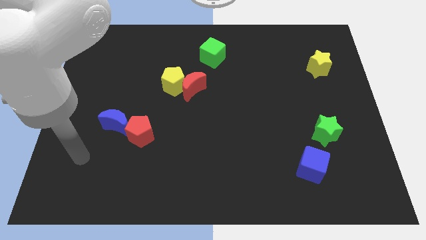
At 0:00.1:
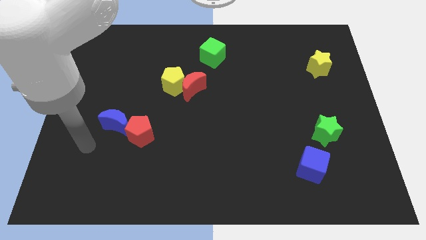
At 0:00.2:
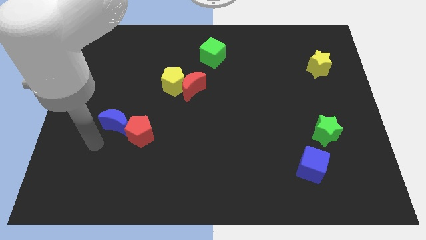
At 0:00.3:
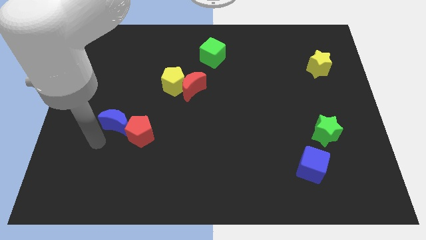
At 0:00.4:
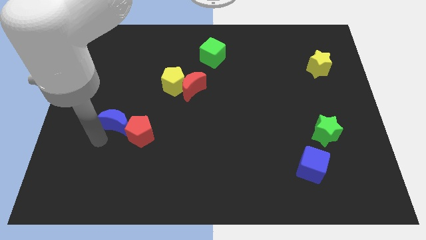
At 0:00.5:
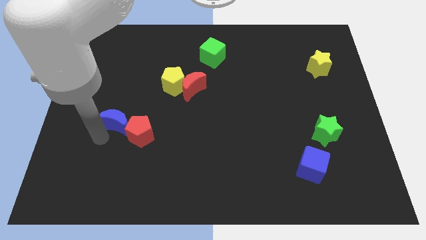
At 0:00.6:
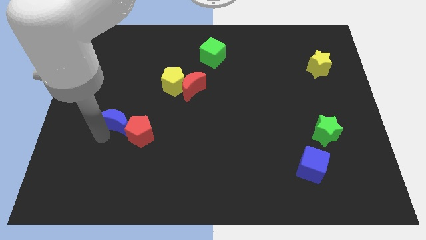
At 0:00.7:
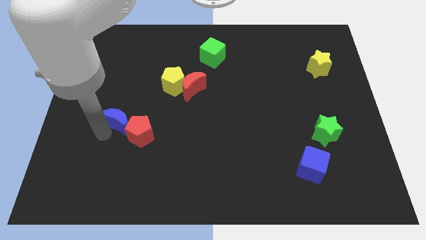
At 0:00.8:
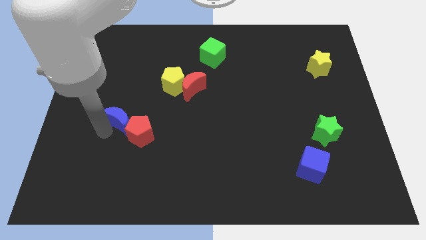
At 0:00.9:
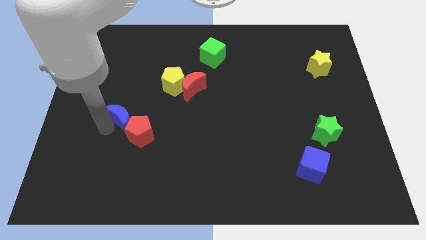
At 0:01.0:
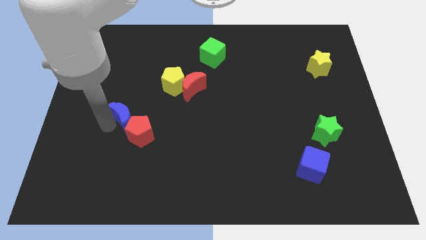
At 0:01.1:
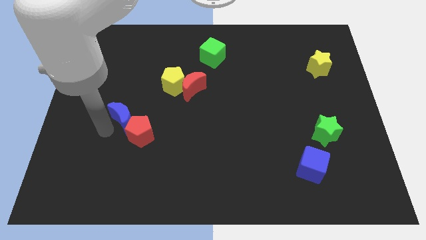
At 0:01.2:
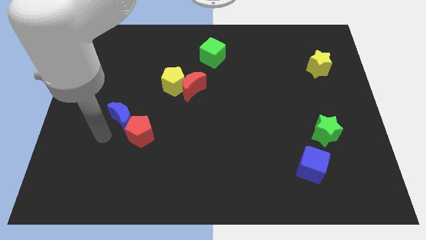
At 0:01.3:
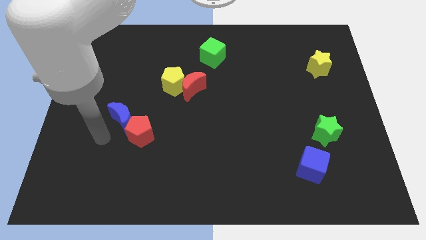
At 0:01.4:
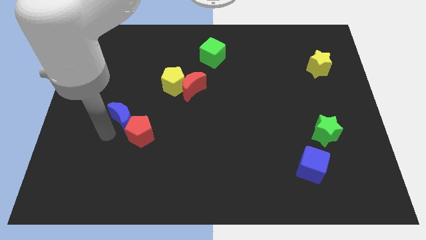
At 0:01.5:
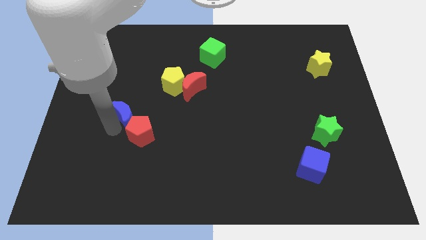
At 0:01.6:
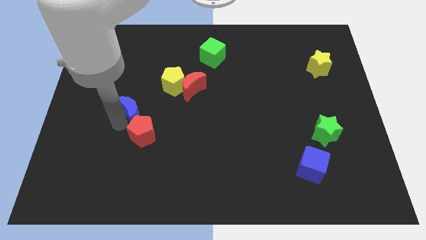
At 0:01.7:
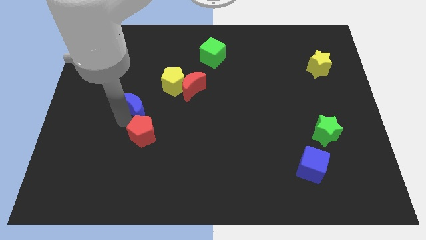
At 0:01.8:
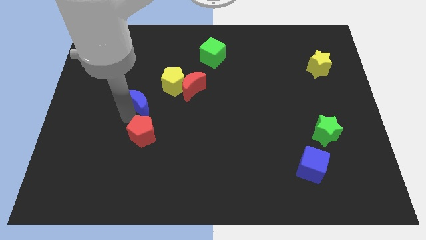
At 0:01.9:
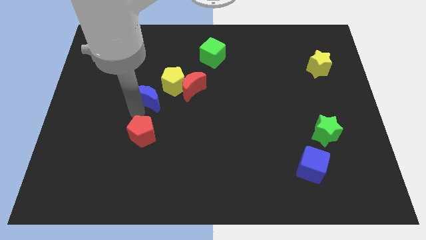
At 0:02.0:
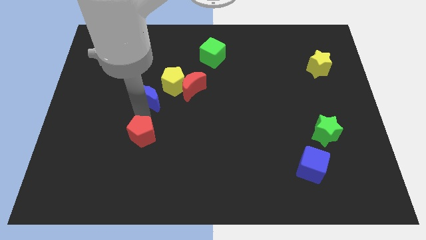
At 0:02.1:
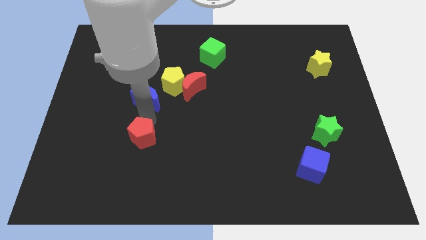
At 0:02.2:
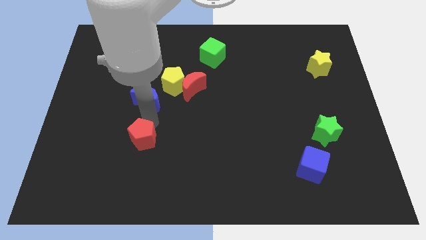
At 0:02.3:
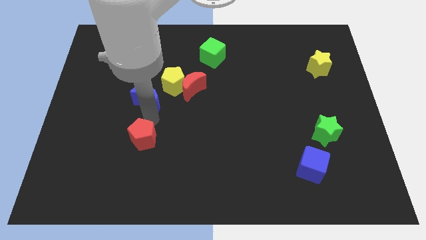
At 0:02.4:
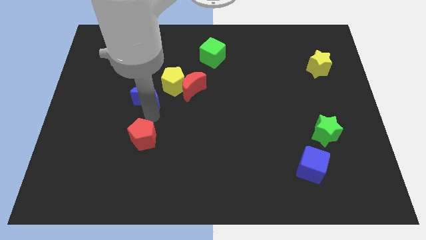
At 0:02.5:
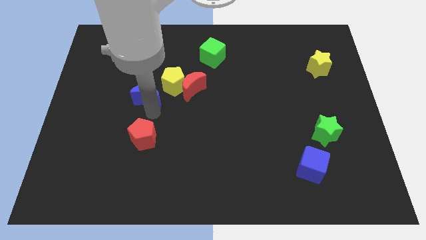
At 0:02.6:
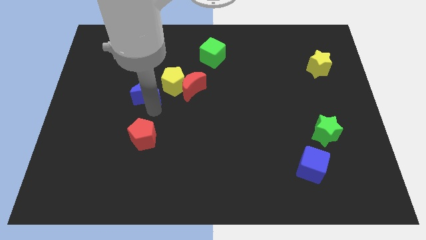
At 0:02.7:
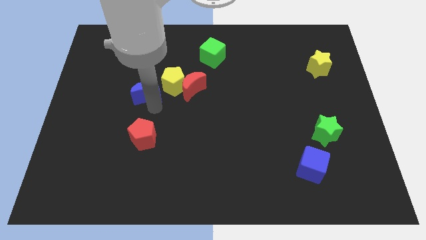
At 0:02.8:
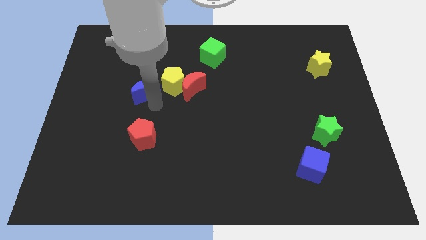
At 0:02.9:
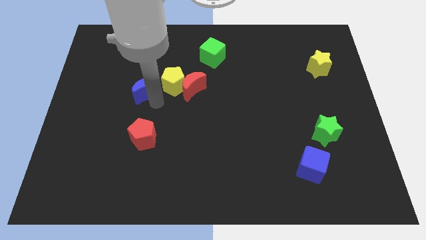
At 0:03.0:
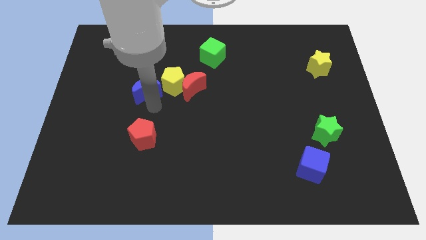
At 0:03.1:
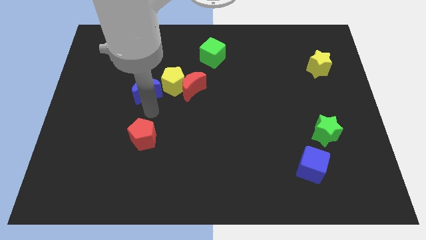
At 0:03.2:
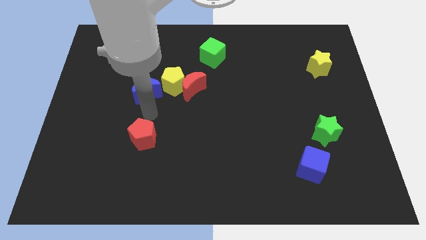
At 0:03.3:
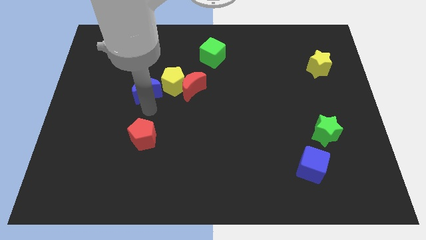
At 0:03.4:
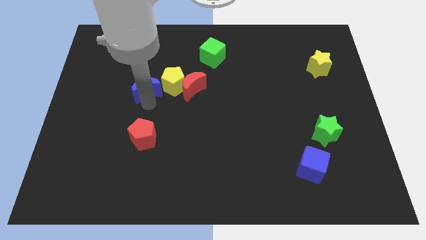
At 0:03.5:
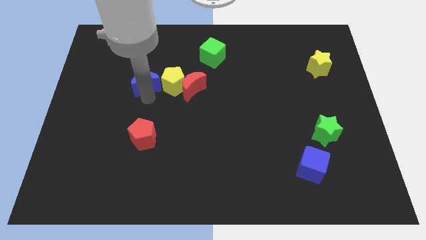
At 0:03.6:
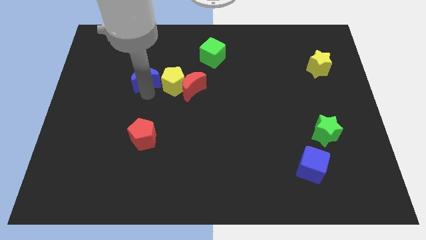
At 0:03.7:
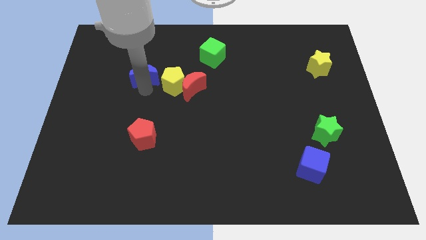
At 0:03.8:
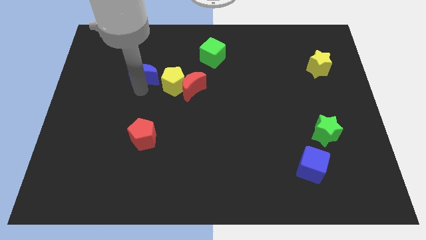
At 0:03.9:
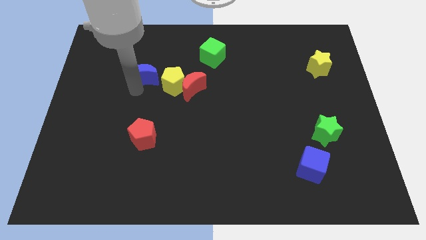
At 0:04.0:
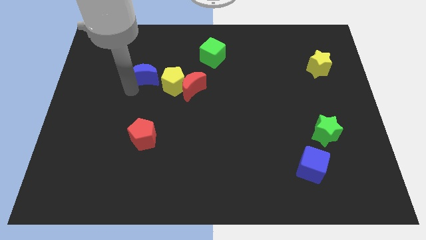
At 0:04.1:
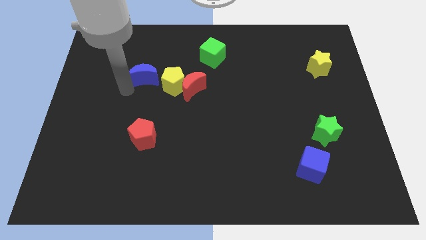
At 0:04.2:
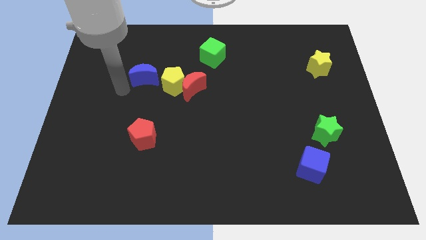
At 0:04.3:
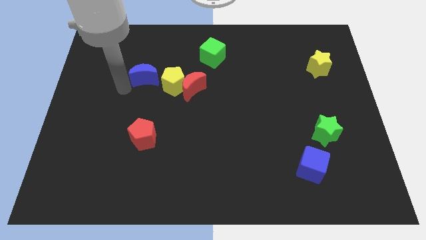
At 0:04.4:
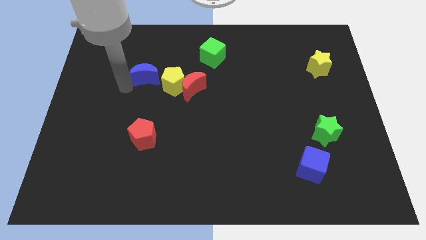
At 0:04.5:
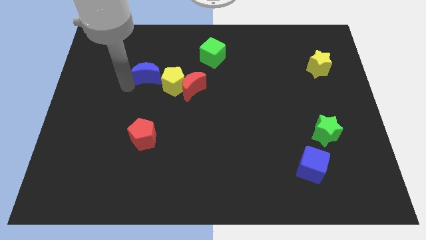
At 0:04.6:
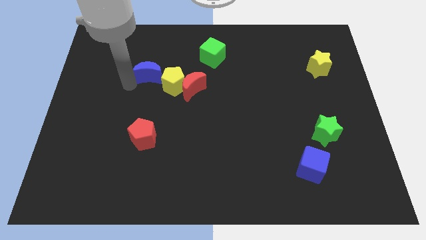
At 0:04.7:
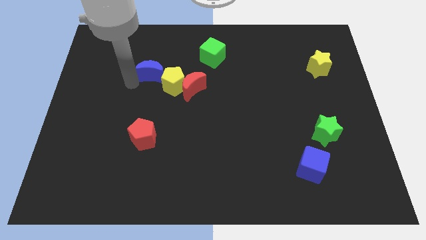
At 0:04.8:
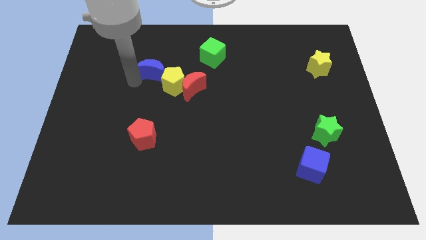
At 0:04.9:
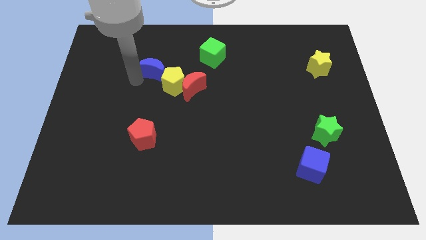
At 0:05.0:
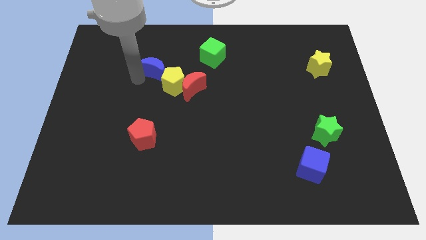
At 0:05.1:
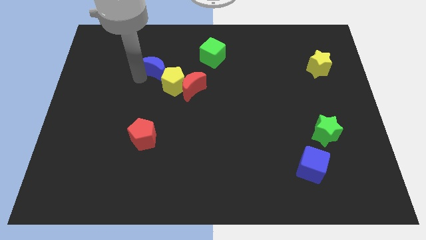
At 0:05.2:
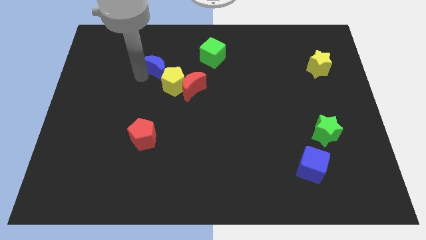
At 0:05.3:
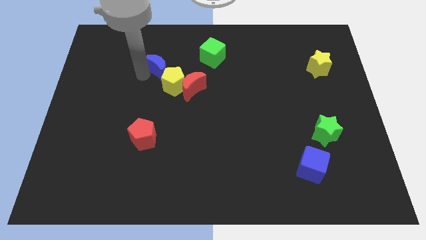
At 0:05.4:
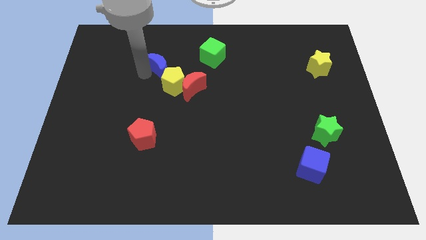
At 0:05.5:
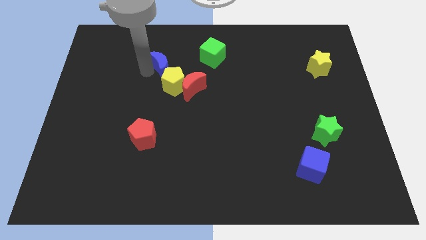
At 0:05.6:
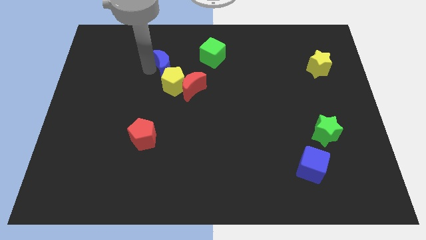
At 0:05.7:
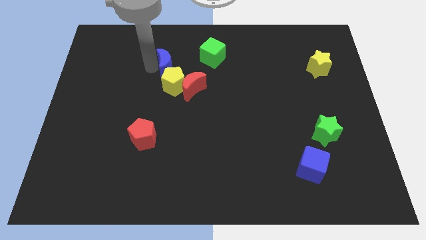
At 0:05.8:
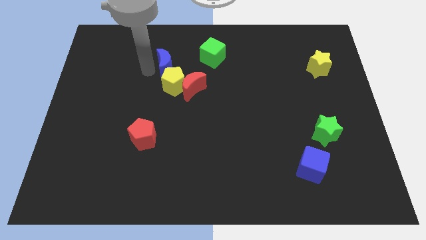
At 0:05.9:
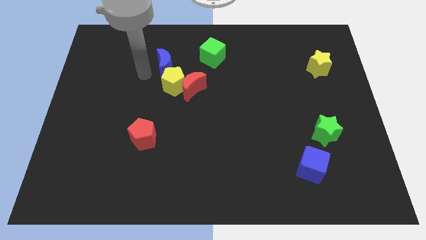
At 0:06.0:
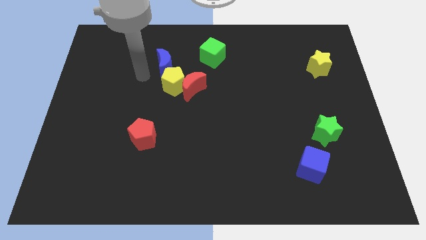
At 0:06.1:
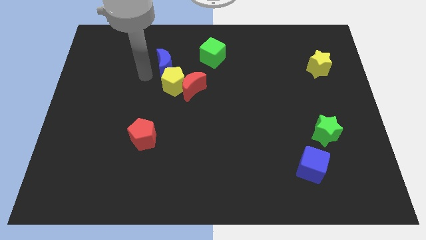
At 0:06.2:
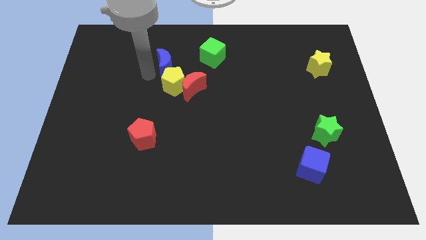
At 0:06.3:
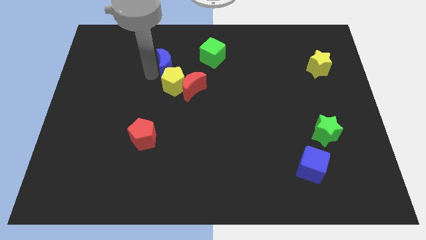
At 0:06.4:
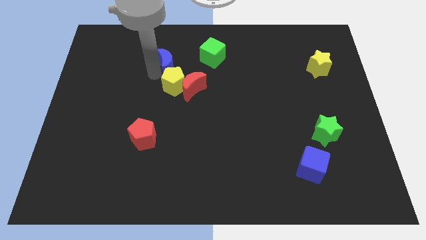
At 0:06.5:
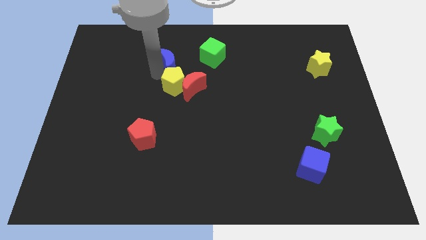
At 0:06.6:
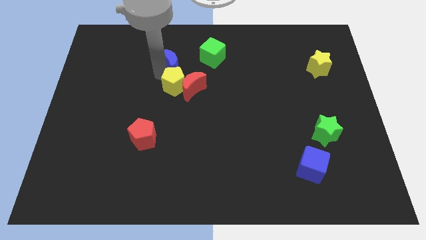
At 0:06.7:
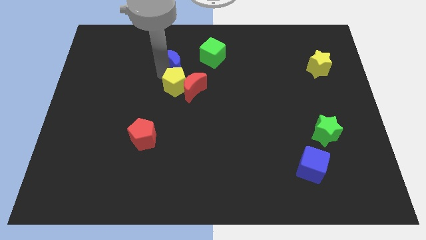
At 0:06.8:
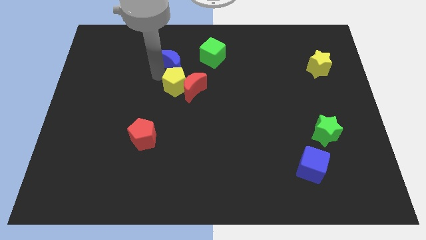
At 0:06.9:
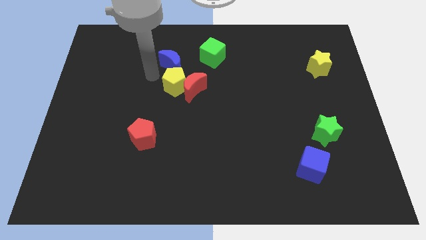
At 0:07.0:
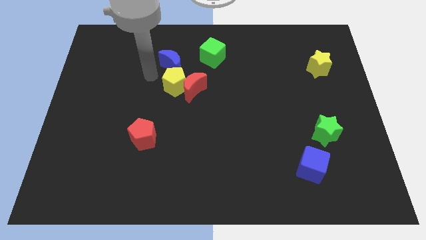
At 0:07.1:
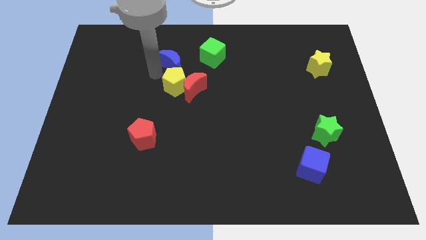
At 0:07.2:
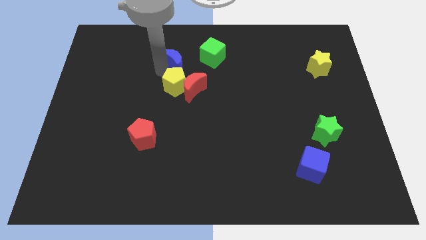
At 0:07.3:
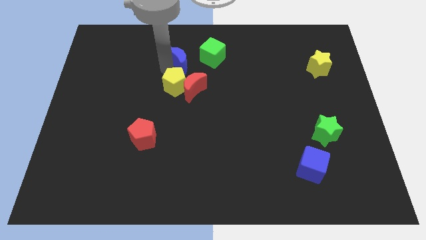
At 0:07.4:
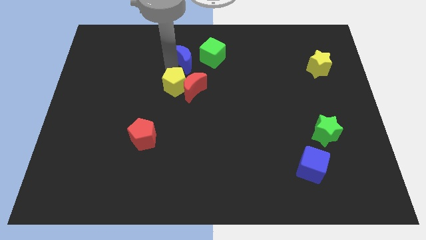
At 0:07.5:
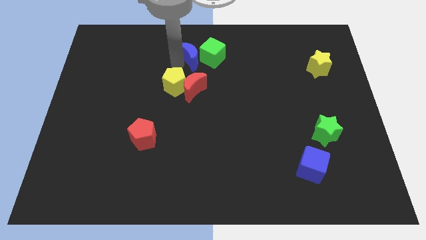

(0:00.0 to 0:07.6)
slide the blue moon close to the green cube
